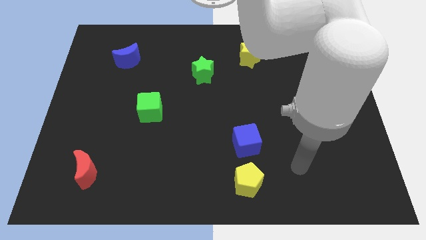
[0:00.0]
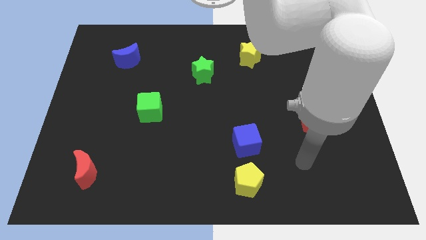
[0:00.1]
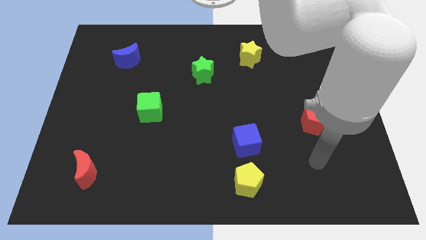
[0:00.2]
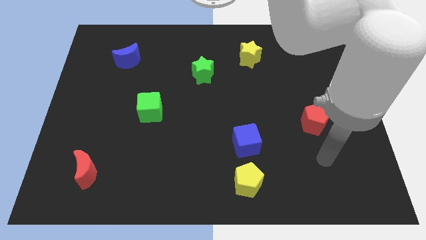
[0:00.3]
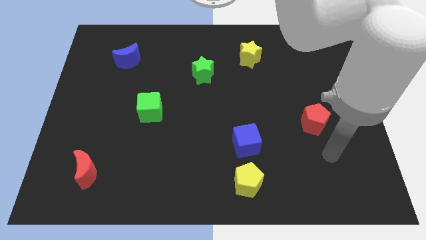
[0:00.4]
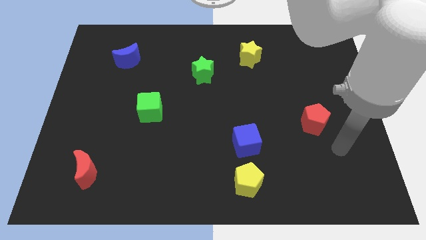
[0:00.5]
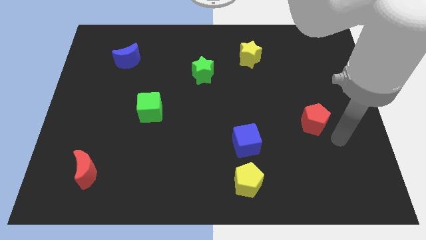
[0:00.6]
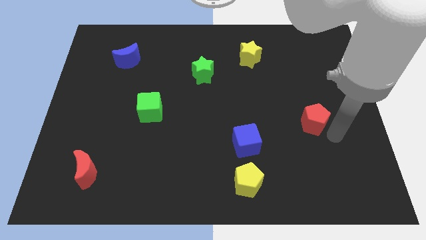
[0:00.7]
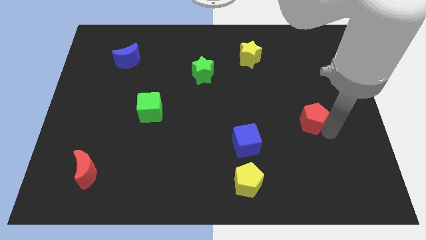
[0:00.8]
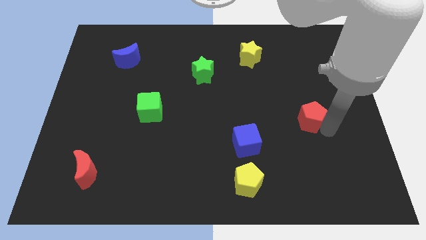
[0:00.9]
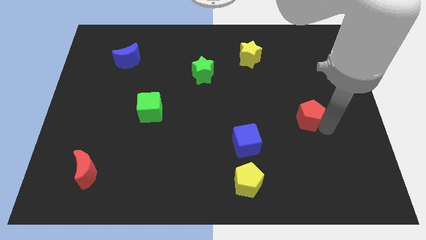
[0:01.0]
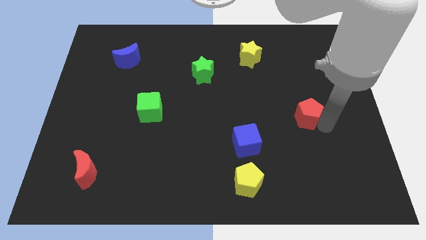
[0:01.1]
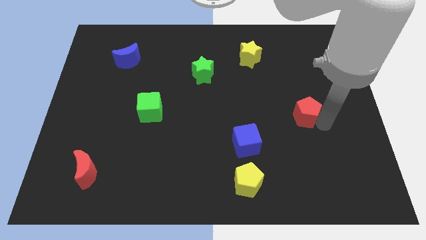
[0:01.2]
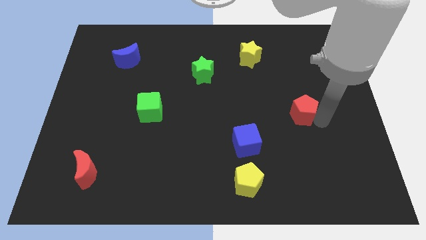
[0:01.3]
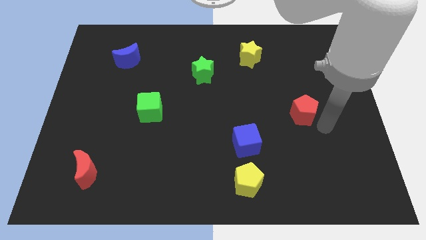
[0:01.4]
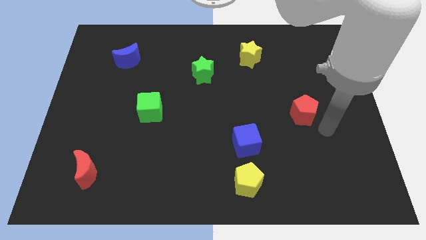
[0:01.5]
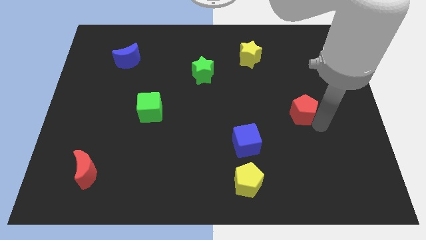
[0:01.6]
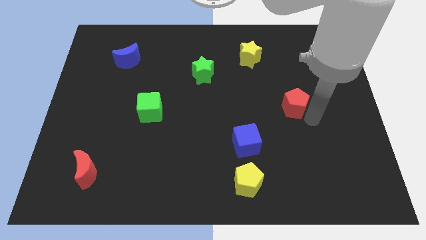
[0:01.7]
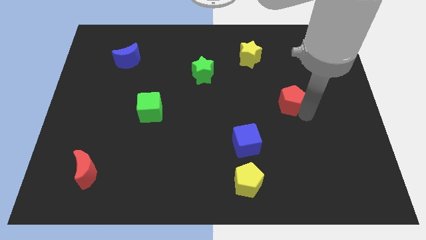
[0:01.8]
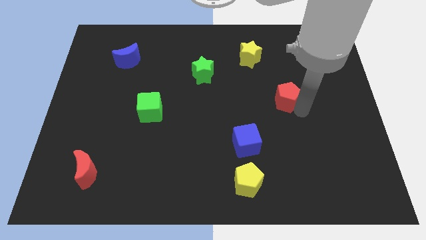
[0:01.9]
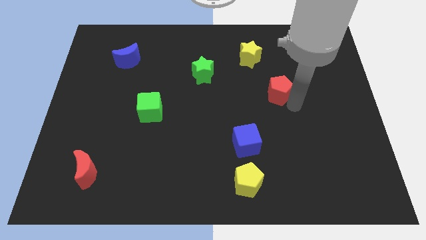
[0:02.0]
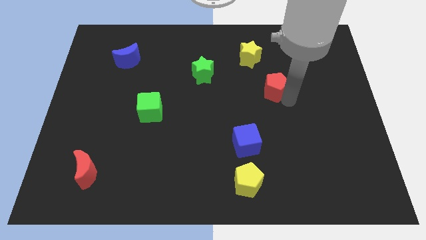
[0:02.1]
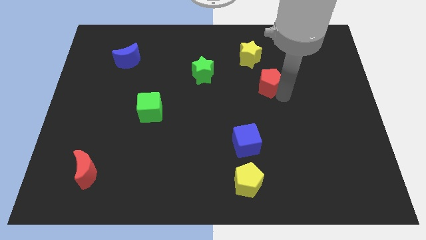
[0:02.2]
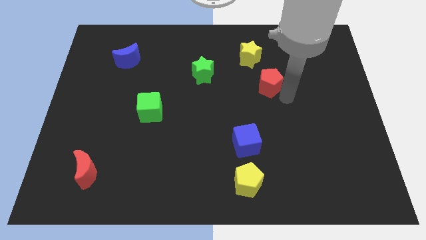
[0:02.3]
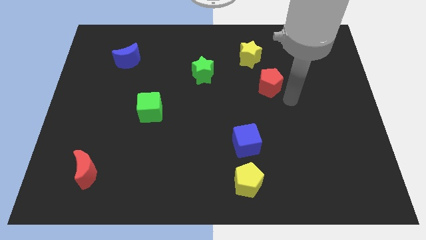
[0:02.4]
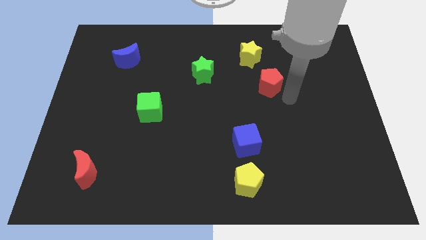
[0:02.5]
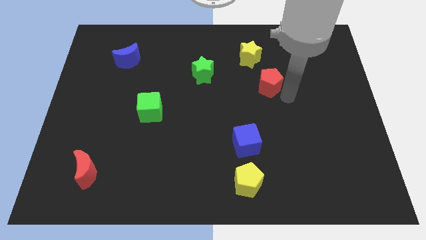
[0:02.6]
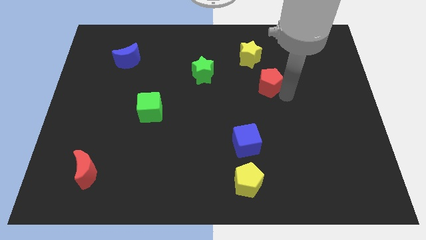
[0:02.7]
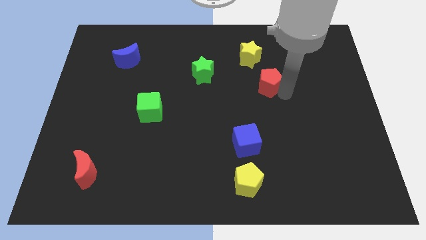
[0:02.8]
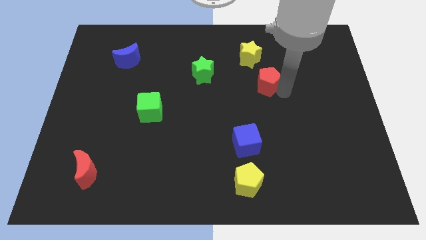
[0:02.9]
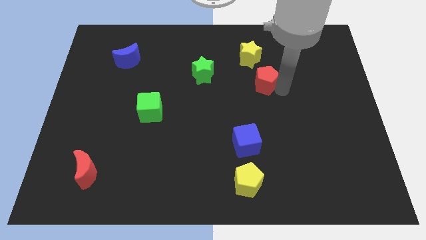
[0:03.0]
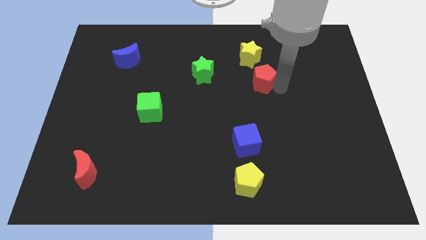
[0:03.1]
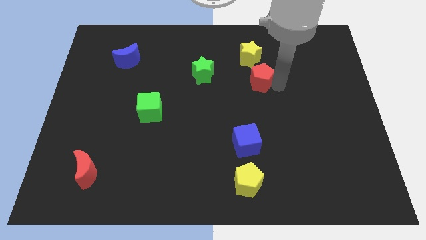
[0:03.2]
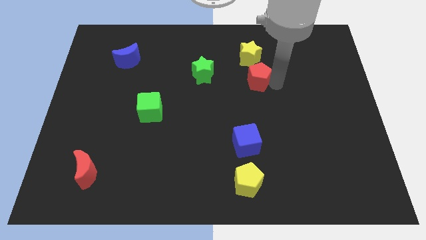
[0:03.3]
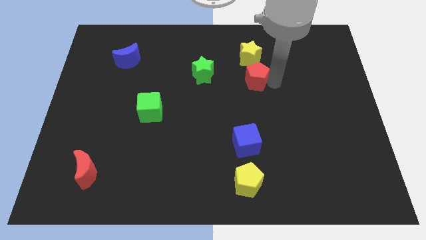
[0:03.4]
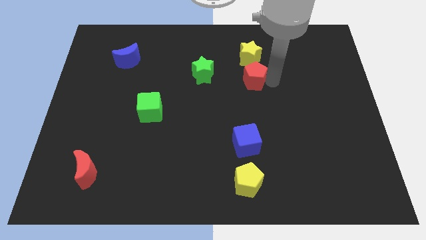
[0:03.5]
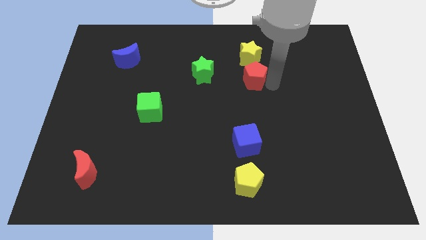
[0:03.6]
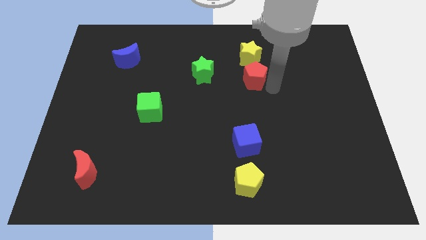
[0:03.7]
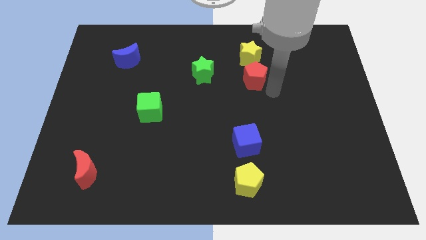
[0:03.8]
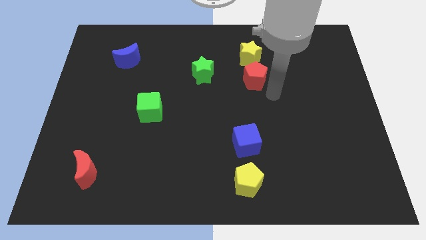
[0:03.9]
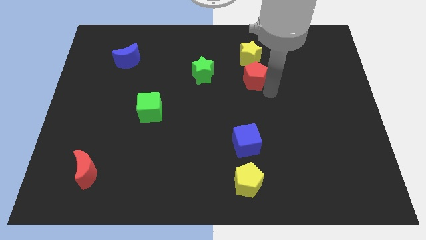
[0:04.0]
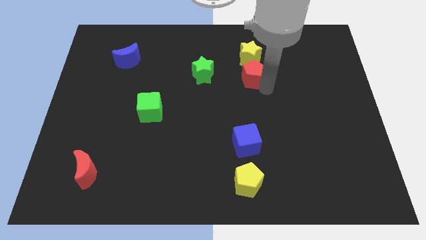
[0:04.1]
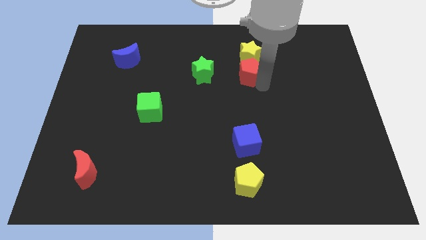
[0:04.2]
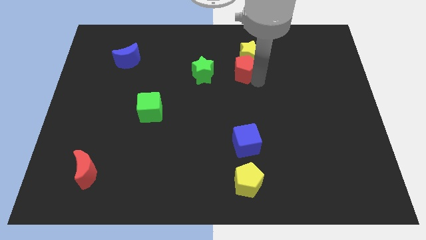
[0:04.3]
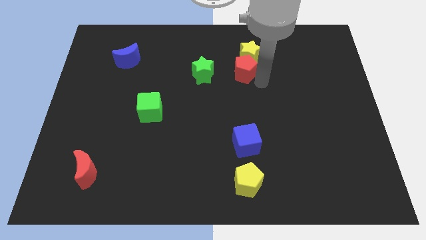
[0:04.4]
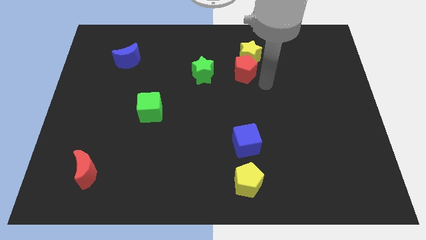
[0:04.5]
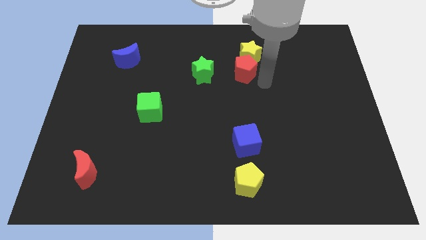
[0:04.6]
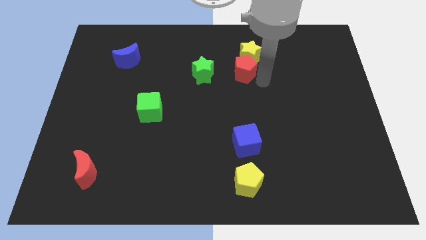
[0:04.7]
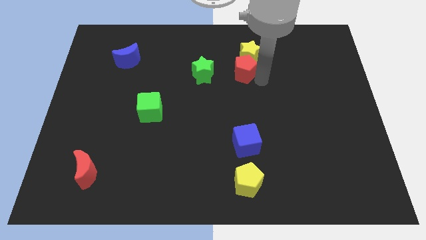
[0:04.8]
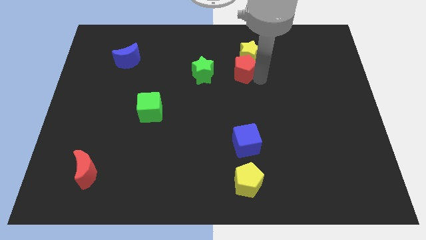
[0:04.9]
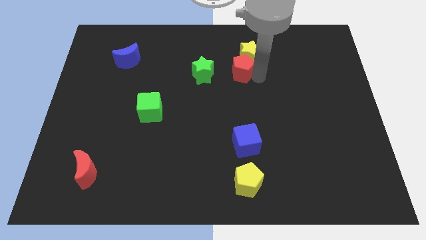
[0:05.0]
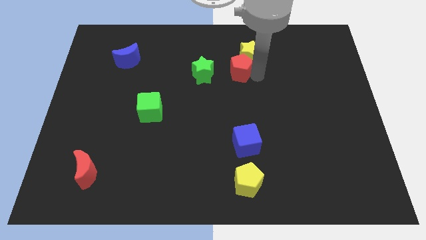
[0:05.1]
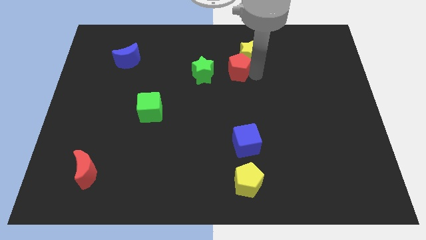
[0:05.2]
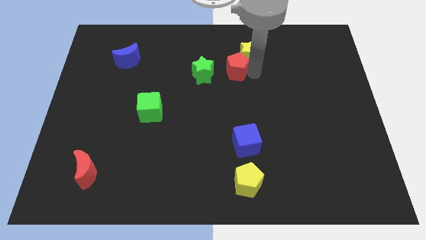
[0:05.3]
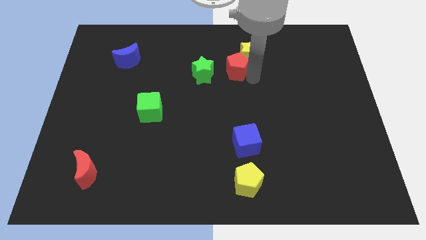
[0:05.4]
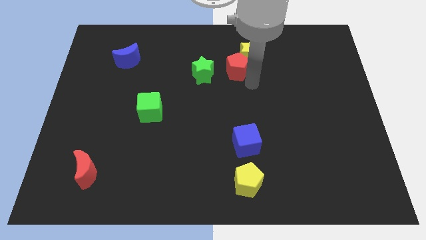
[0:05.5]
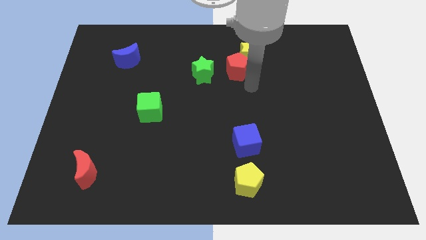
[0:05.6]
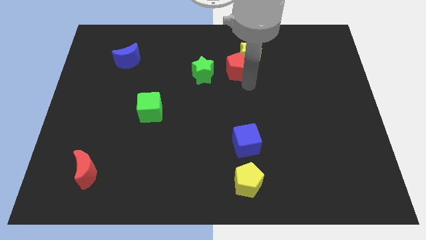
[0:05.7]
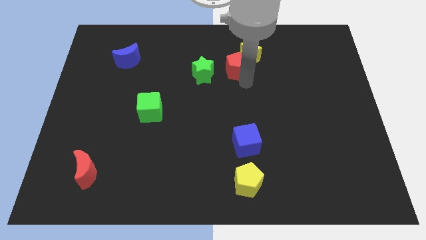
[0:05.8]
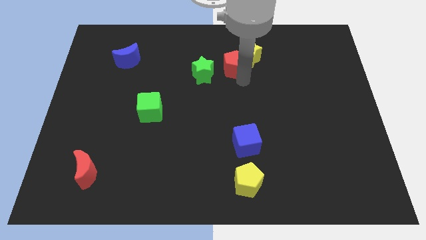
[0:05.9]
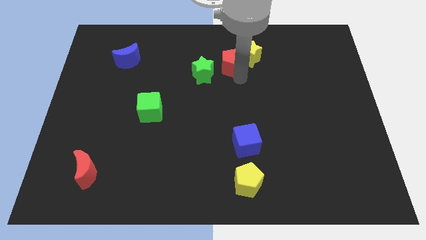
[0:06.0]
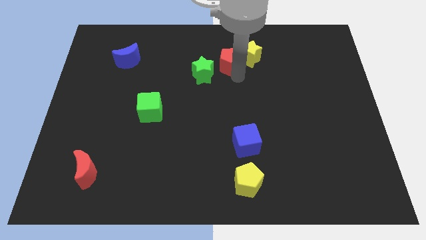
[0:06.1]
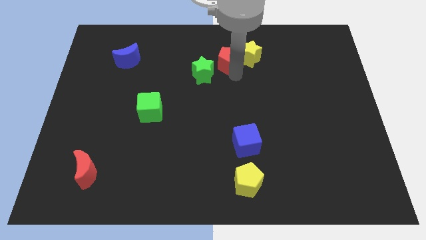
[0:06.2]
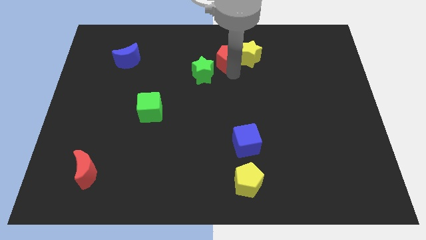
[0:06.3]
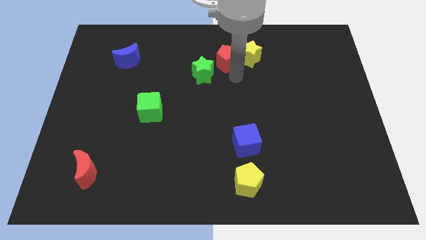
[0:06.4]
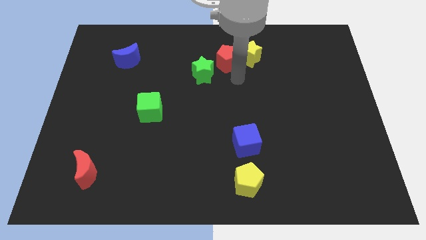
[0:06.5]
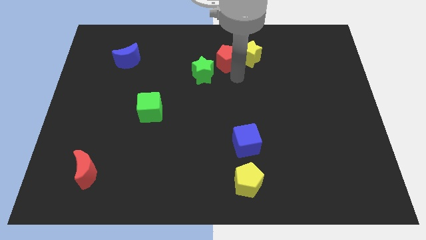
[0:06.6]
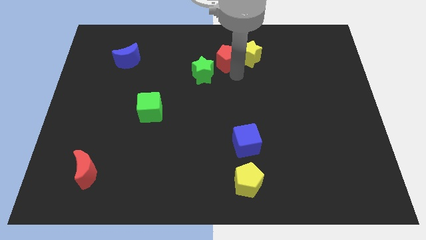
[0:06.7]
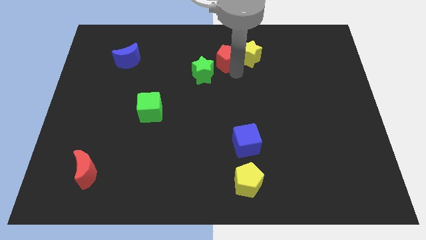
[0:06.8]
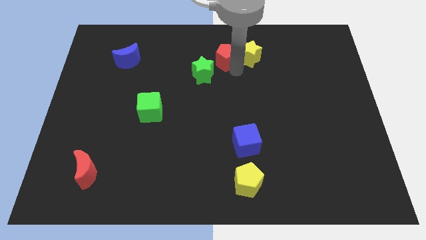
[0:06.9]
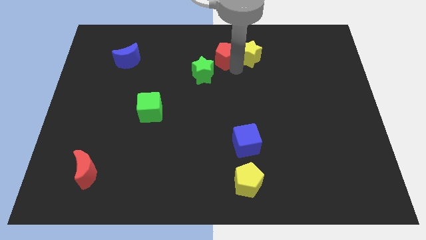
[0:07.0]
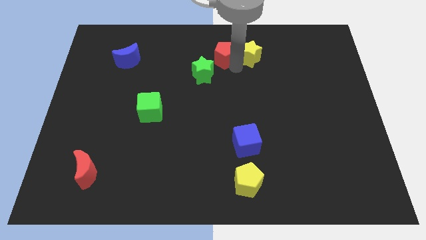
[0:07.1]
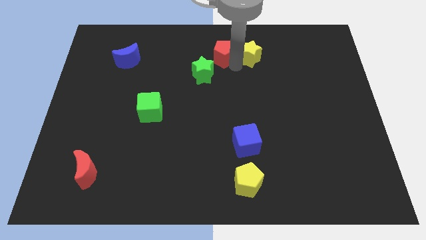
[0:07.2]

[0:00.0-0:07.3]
move the red pentagon to the top side
